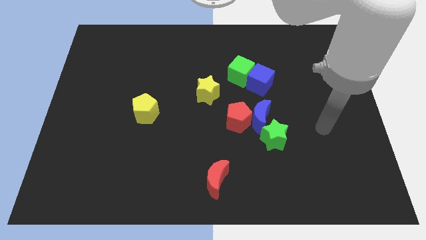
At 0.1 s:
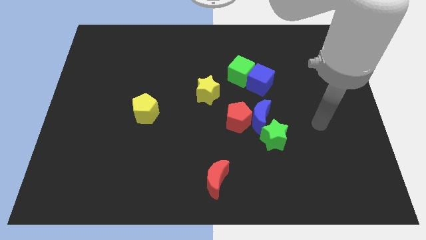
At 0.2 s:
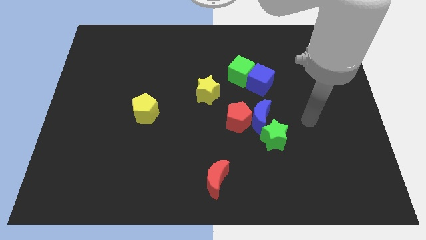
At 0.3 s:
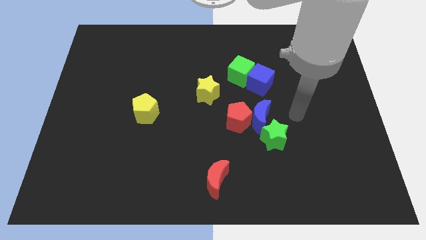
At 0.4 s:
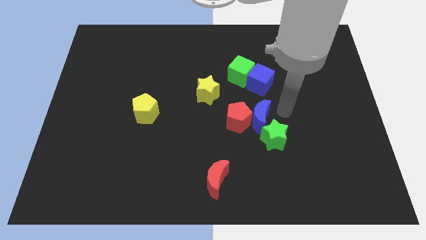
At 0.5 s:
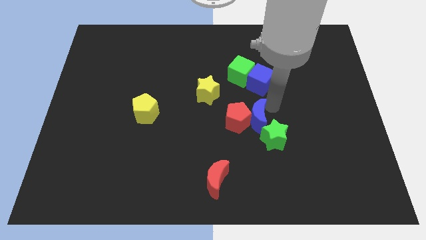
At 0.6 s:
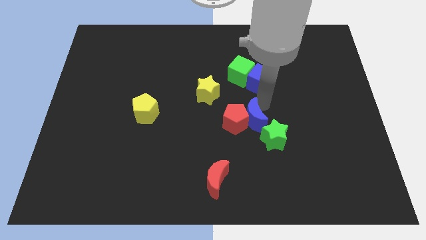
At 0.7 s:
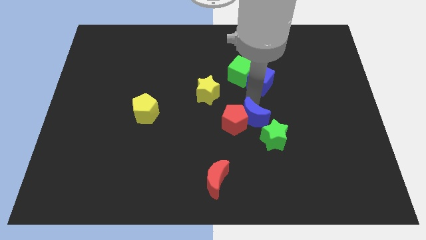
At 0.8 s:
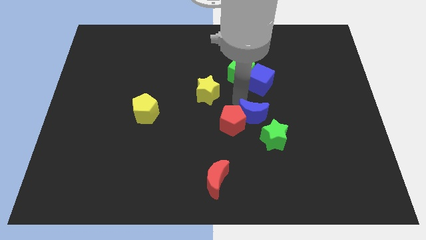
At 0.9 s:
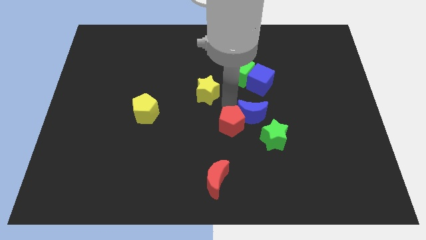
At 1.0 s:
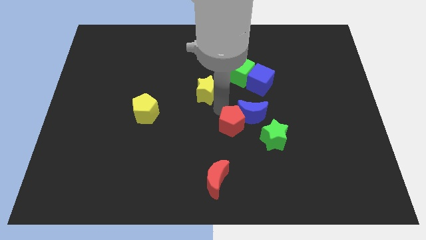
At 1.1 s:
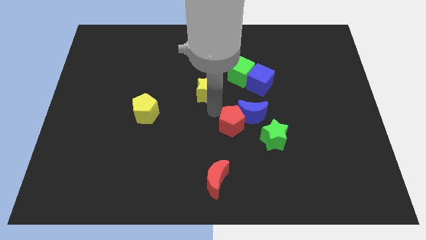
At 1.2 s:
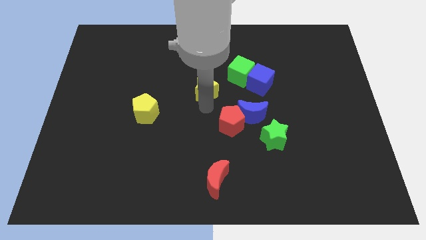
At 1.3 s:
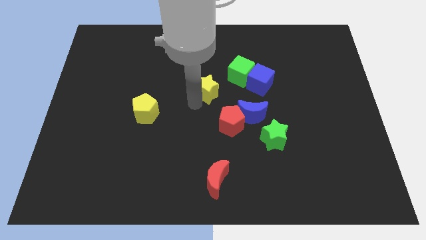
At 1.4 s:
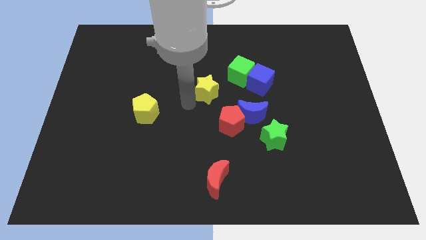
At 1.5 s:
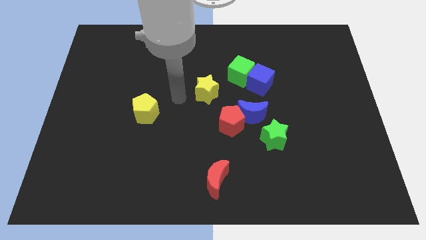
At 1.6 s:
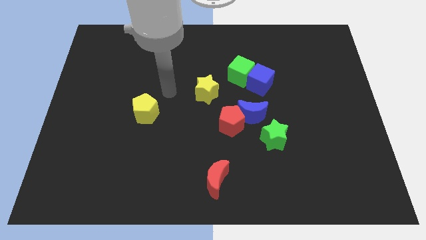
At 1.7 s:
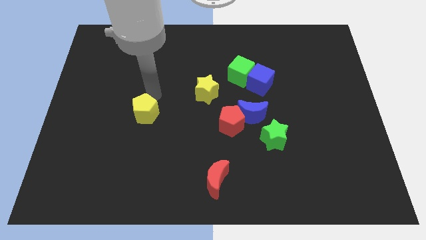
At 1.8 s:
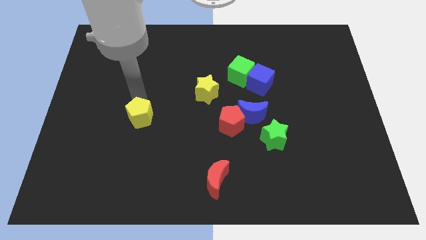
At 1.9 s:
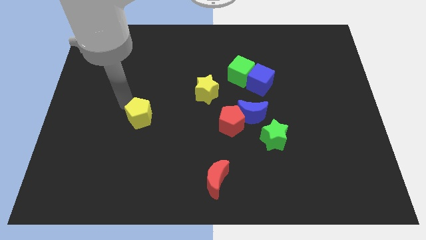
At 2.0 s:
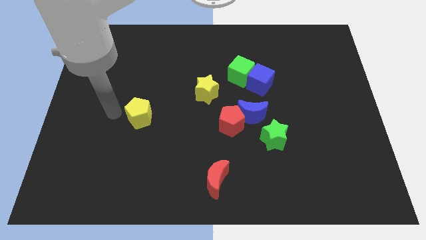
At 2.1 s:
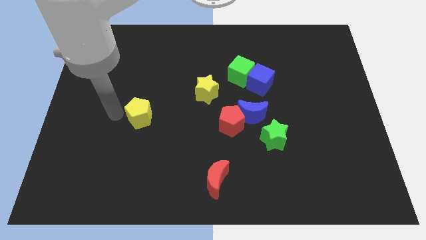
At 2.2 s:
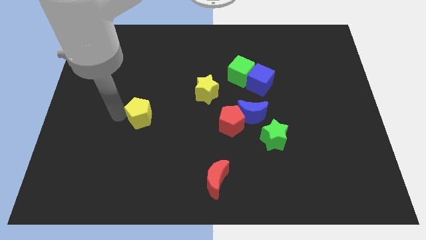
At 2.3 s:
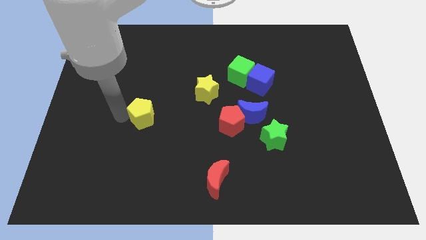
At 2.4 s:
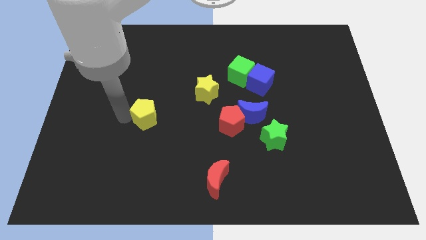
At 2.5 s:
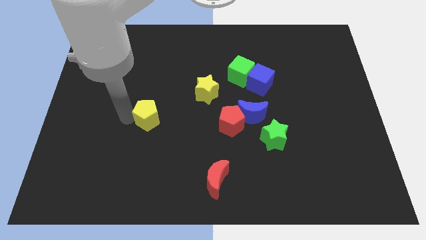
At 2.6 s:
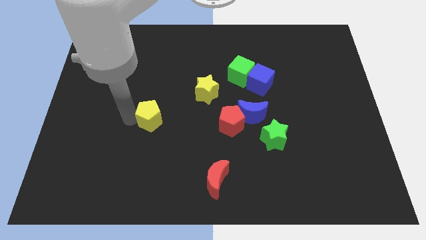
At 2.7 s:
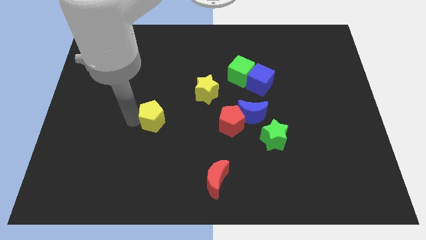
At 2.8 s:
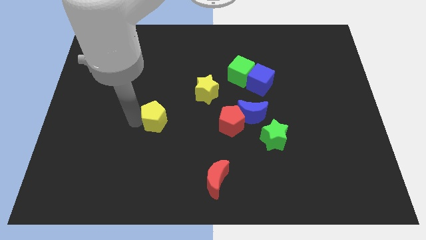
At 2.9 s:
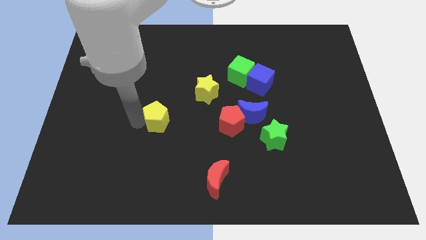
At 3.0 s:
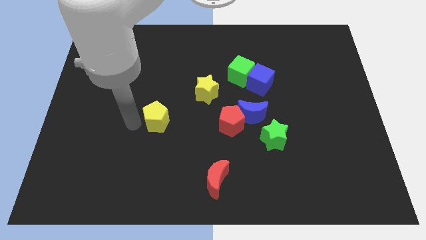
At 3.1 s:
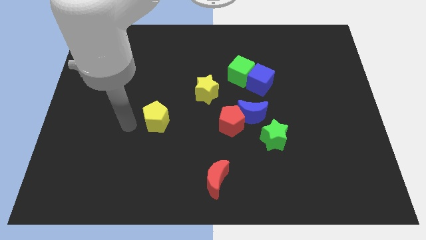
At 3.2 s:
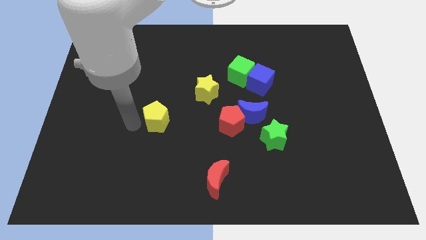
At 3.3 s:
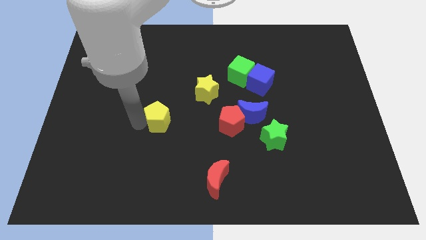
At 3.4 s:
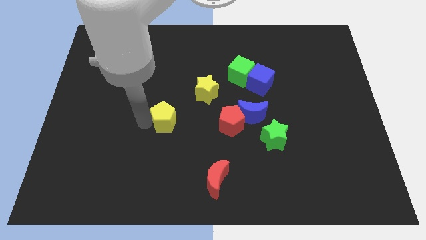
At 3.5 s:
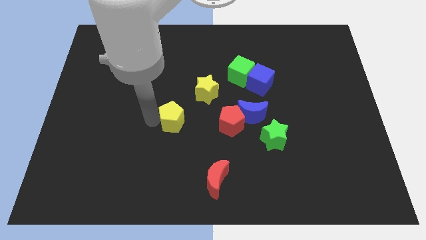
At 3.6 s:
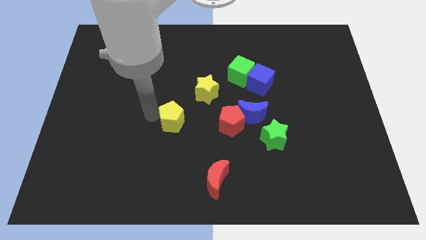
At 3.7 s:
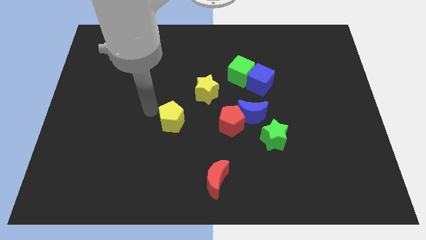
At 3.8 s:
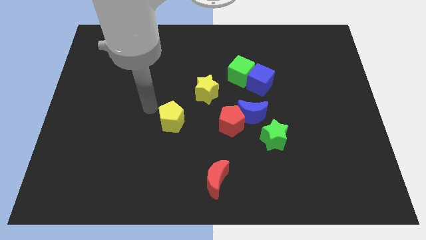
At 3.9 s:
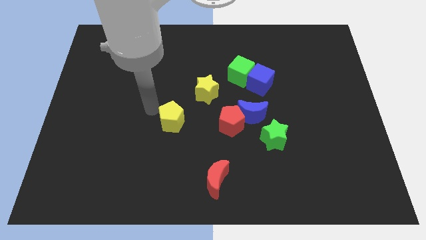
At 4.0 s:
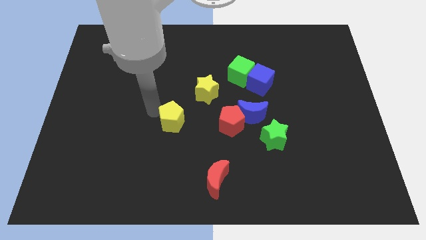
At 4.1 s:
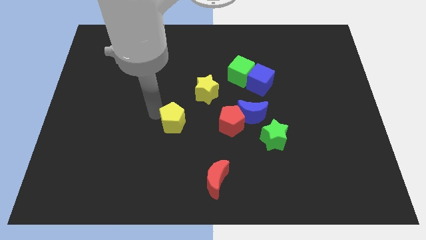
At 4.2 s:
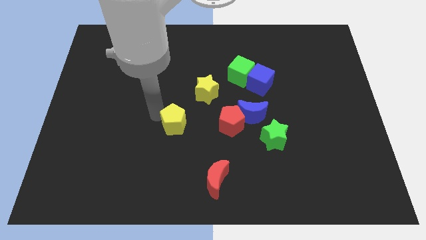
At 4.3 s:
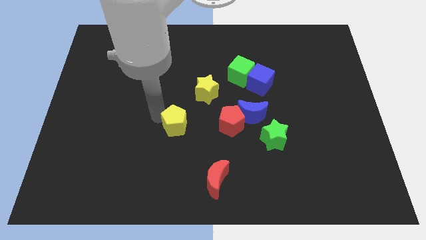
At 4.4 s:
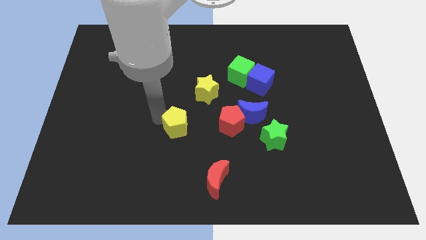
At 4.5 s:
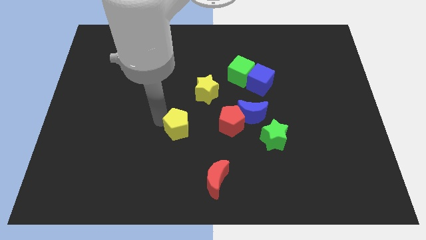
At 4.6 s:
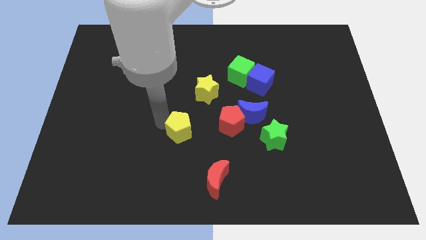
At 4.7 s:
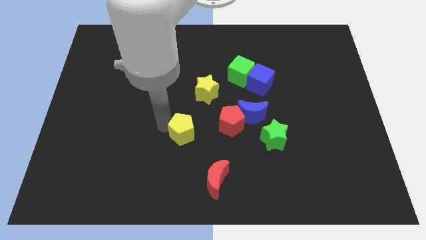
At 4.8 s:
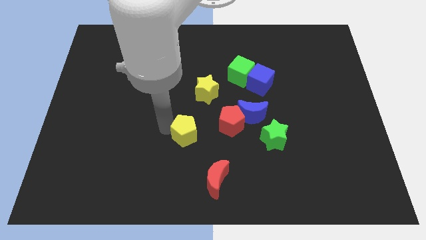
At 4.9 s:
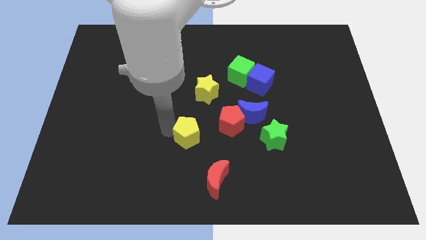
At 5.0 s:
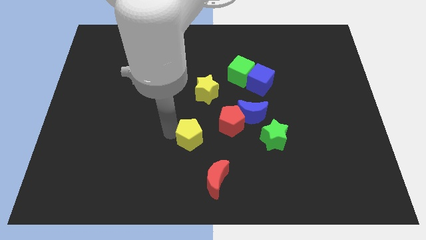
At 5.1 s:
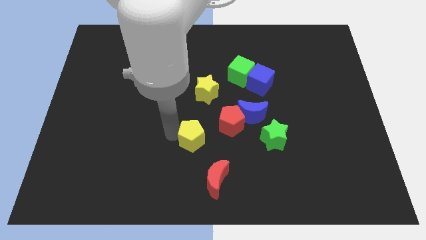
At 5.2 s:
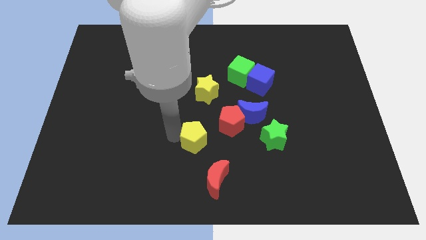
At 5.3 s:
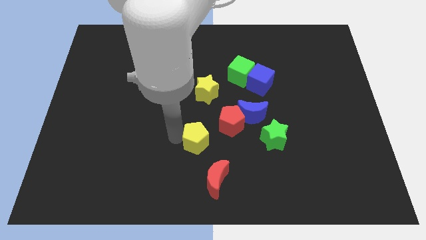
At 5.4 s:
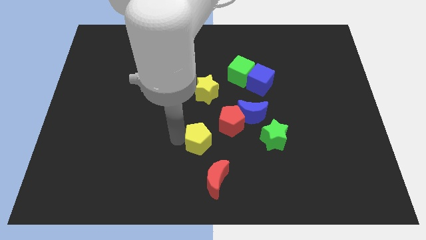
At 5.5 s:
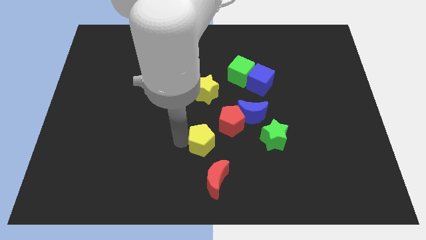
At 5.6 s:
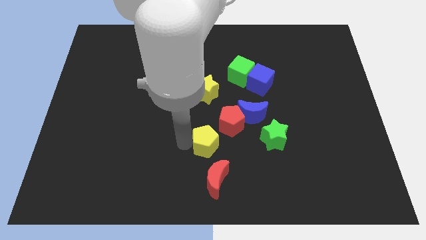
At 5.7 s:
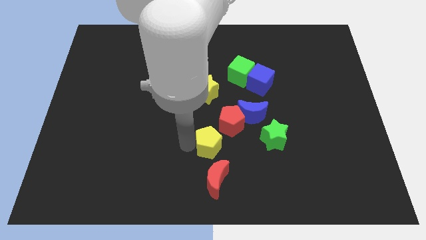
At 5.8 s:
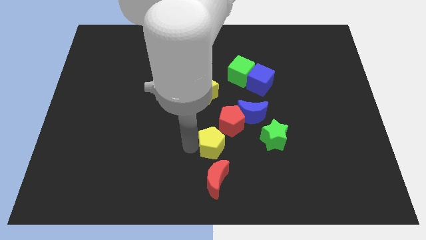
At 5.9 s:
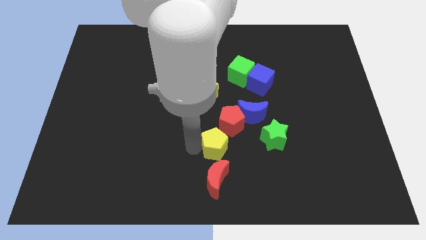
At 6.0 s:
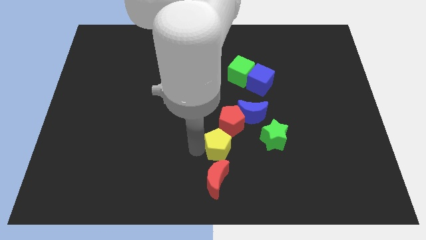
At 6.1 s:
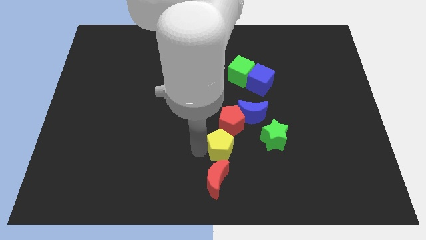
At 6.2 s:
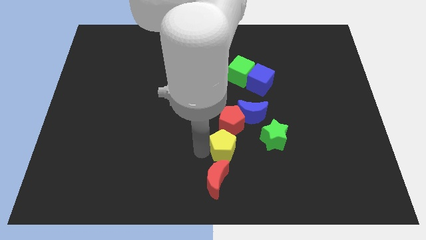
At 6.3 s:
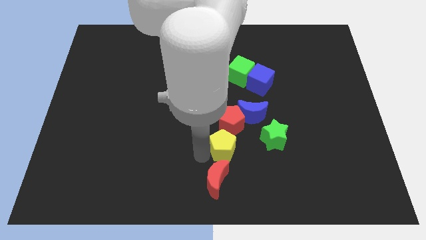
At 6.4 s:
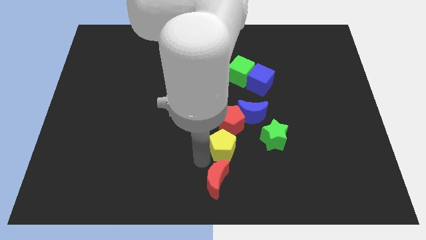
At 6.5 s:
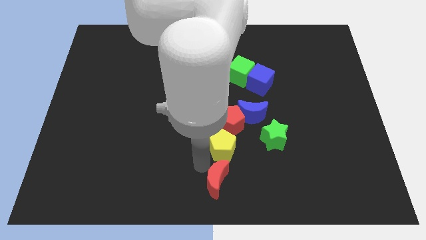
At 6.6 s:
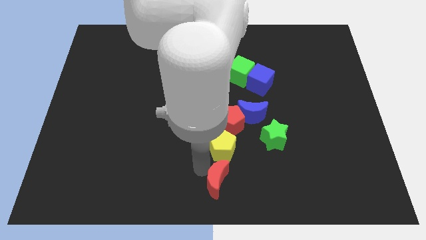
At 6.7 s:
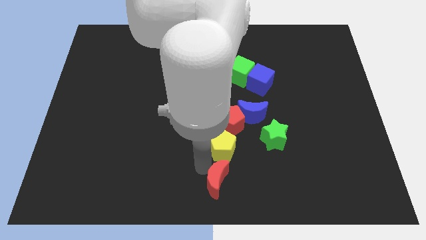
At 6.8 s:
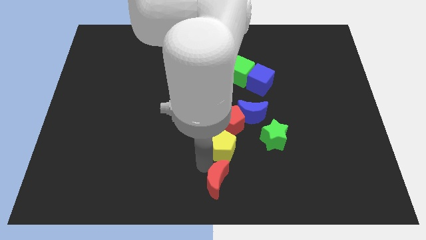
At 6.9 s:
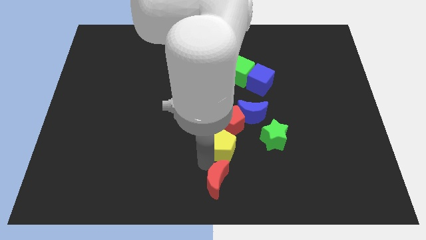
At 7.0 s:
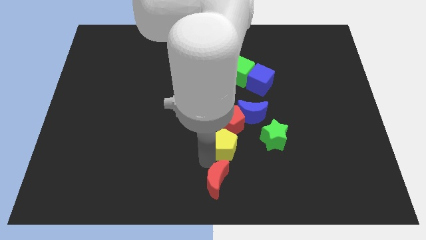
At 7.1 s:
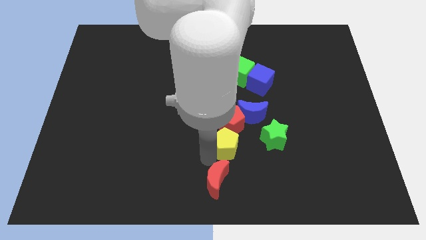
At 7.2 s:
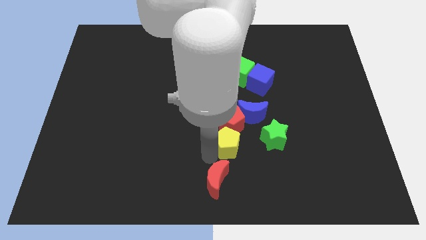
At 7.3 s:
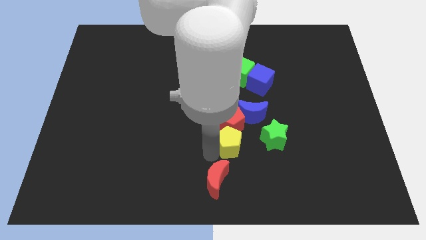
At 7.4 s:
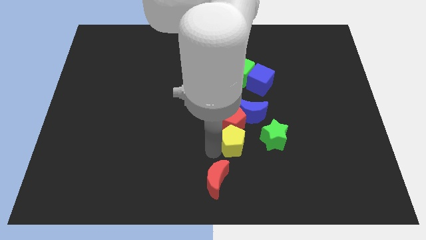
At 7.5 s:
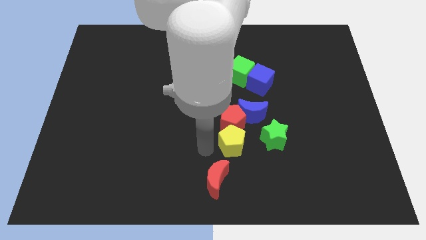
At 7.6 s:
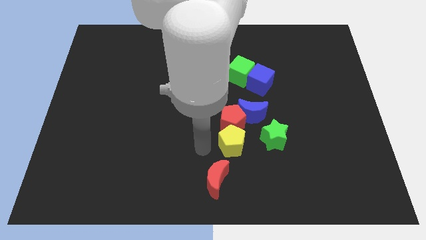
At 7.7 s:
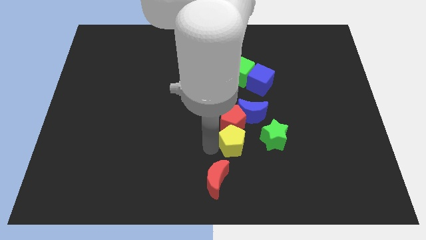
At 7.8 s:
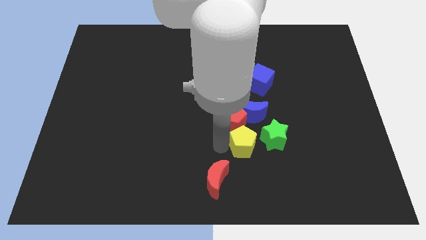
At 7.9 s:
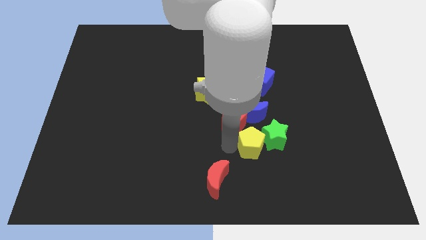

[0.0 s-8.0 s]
push the yellow pentagon towards the green star
